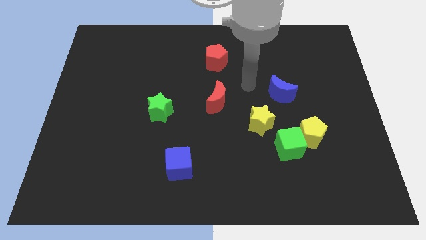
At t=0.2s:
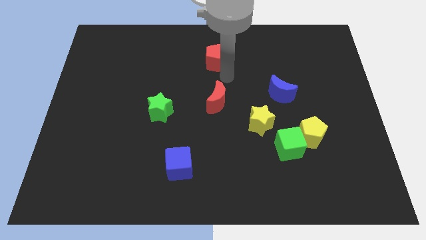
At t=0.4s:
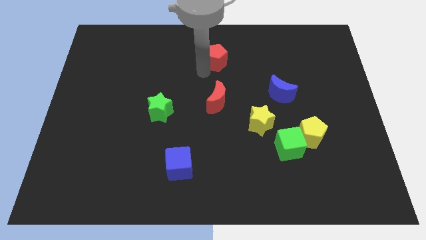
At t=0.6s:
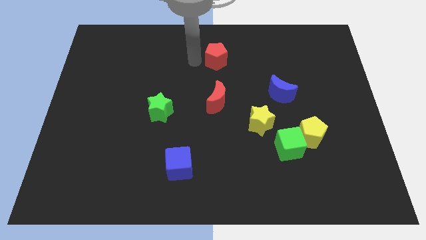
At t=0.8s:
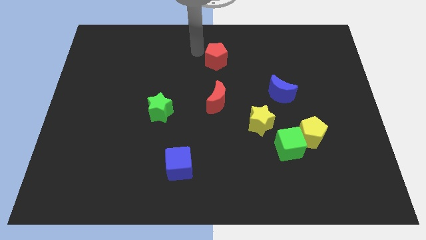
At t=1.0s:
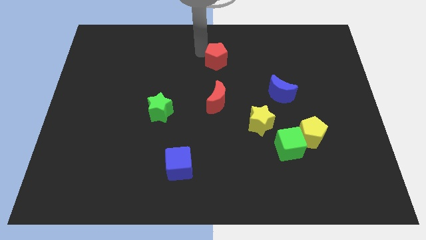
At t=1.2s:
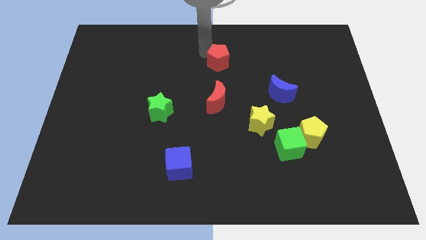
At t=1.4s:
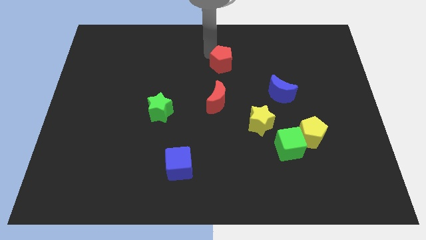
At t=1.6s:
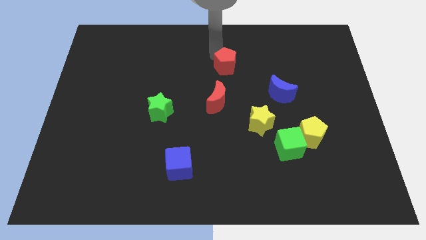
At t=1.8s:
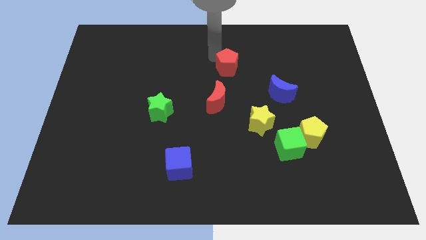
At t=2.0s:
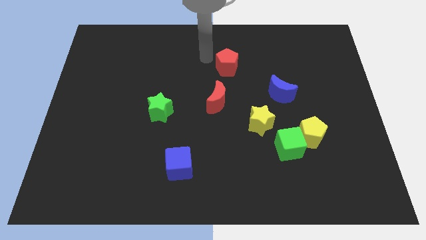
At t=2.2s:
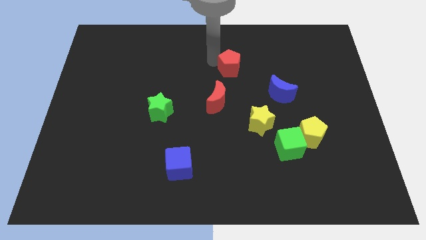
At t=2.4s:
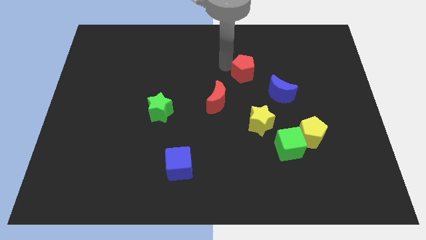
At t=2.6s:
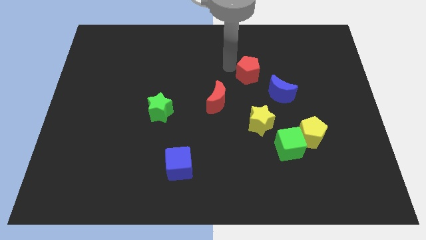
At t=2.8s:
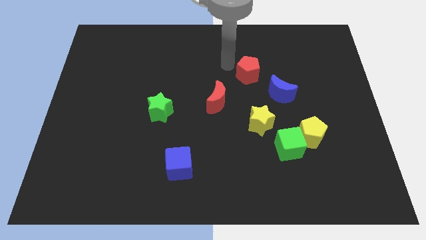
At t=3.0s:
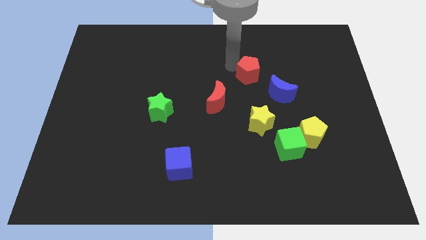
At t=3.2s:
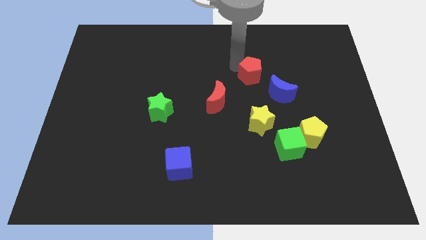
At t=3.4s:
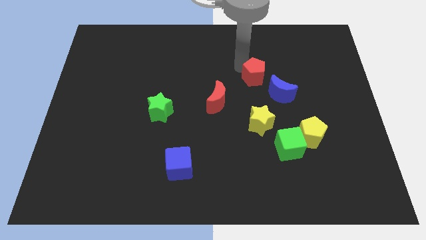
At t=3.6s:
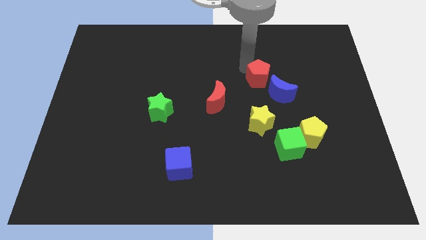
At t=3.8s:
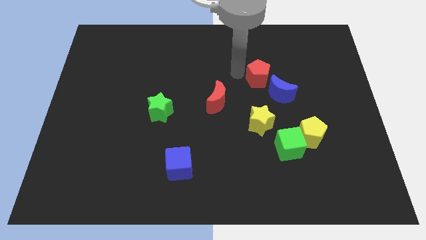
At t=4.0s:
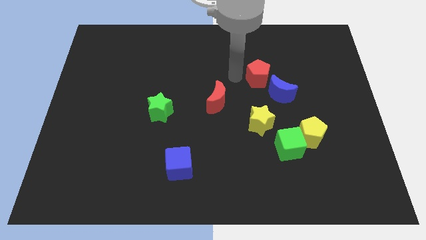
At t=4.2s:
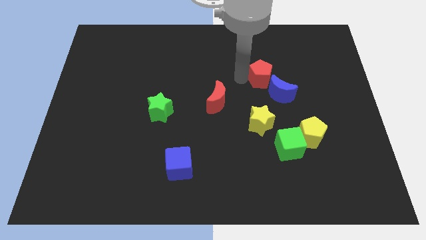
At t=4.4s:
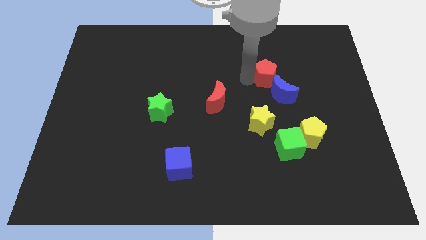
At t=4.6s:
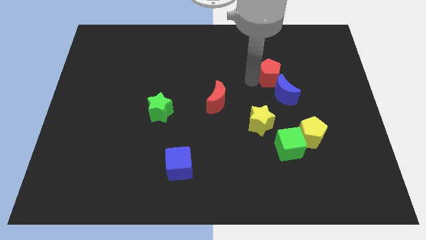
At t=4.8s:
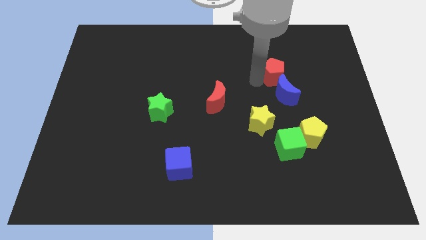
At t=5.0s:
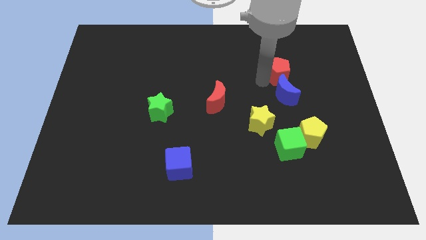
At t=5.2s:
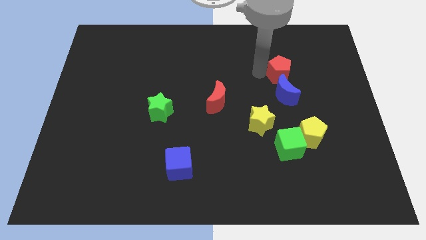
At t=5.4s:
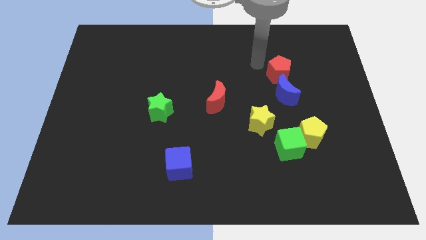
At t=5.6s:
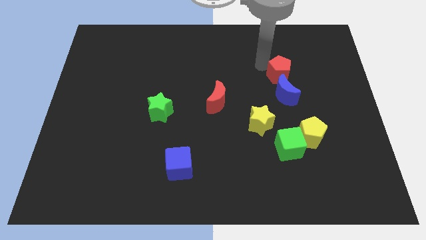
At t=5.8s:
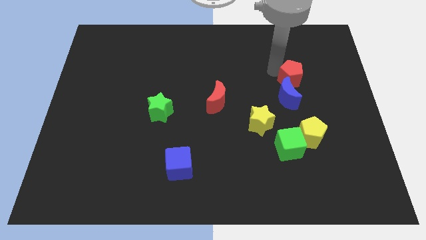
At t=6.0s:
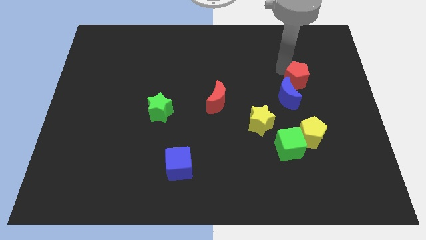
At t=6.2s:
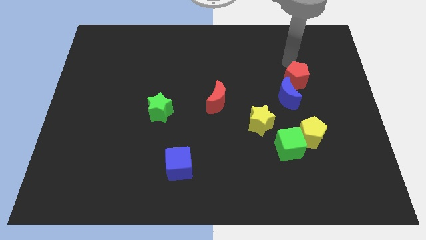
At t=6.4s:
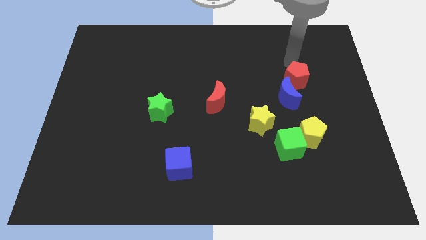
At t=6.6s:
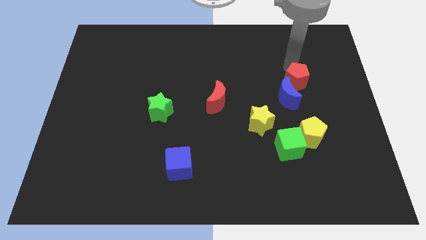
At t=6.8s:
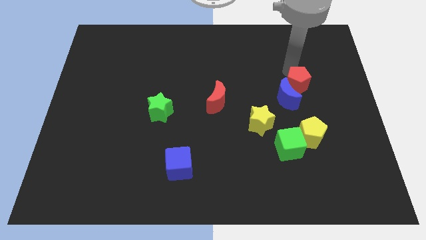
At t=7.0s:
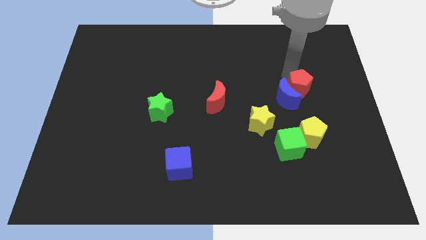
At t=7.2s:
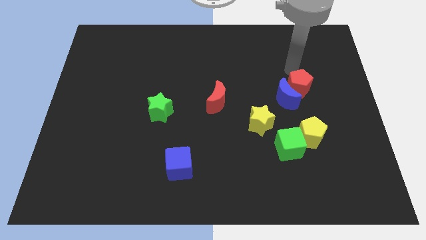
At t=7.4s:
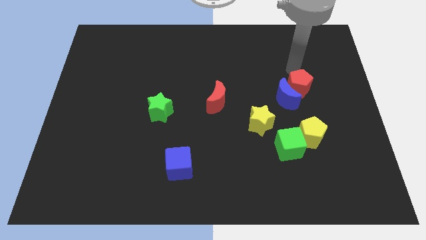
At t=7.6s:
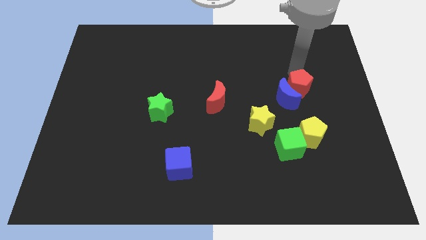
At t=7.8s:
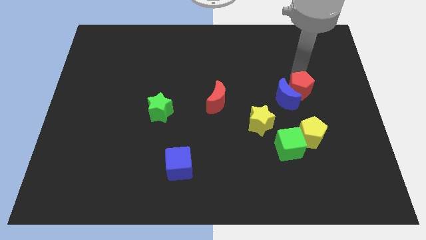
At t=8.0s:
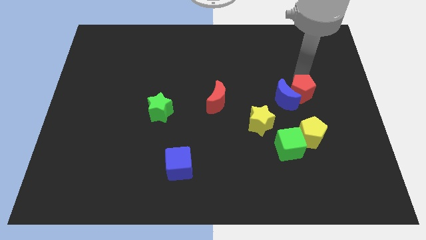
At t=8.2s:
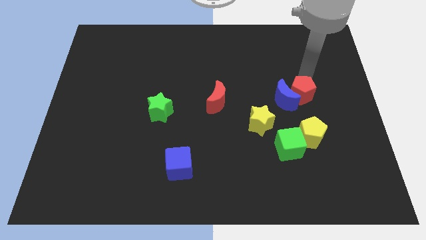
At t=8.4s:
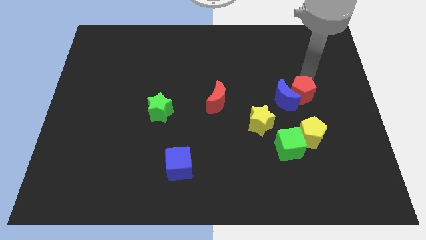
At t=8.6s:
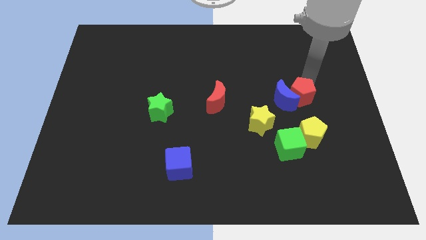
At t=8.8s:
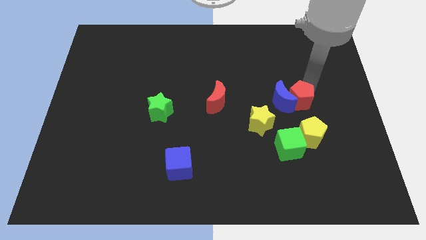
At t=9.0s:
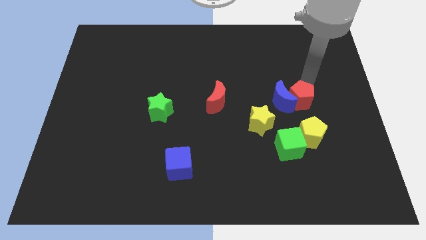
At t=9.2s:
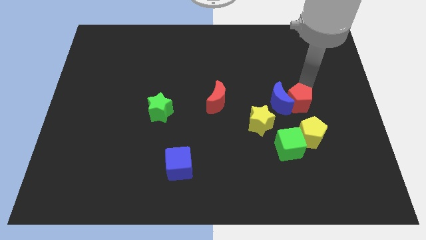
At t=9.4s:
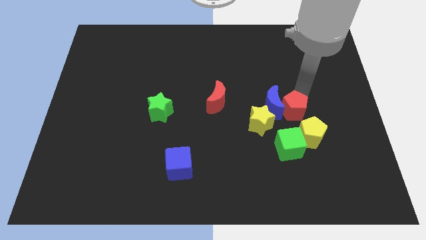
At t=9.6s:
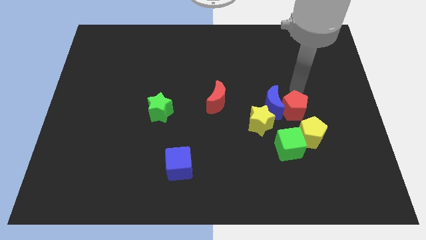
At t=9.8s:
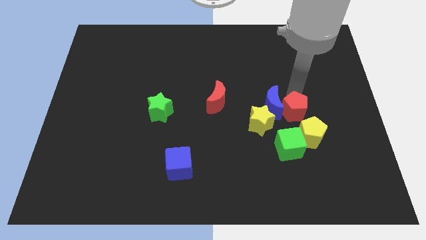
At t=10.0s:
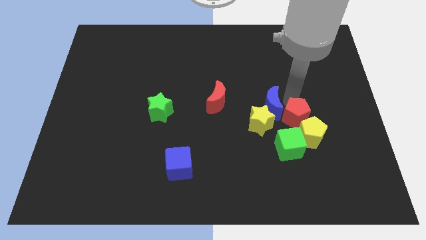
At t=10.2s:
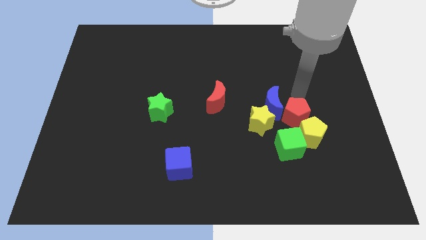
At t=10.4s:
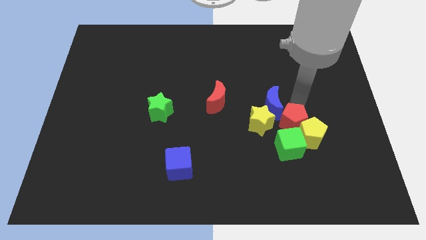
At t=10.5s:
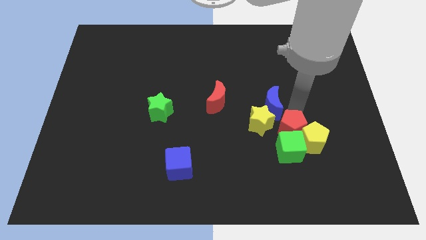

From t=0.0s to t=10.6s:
move the red pentagon next to the green cube

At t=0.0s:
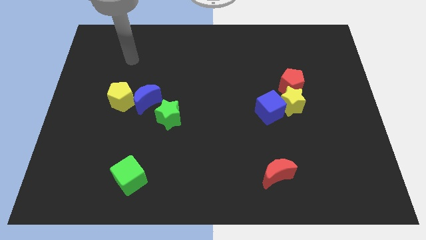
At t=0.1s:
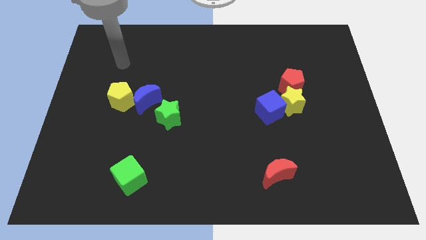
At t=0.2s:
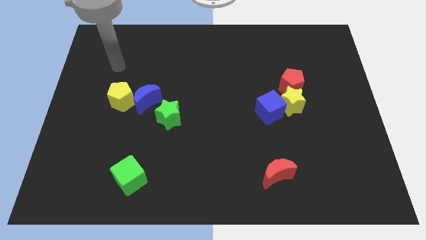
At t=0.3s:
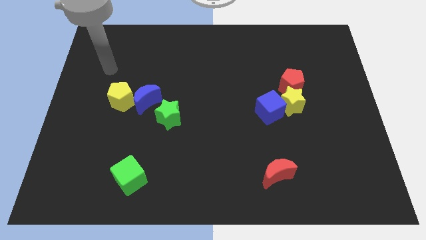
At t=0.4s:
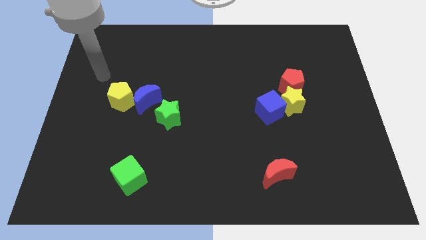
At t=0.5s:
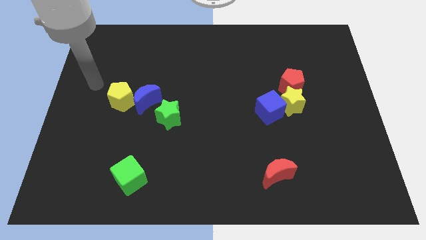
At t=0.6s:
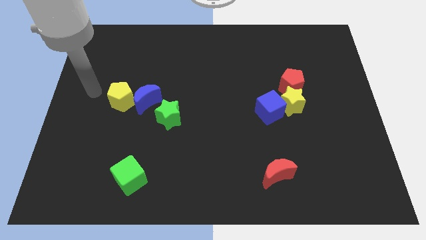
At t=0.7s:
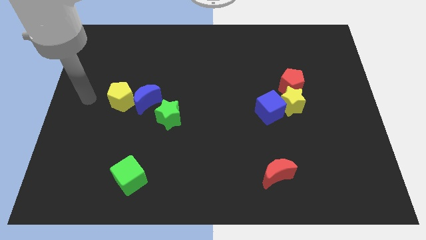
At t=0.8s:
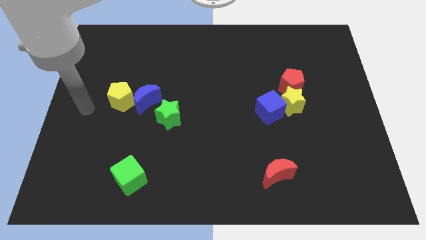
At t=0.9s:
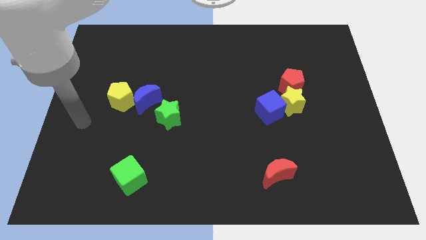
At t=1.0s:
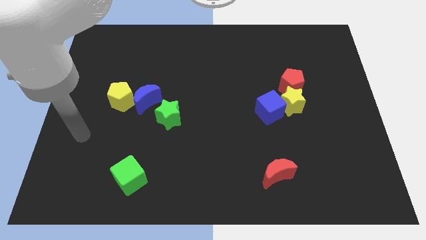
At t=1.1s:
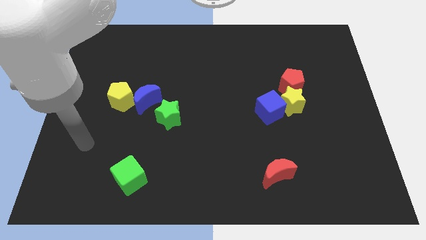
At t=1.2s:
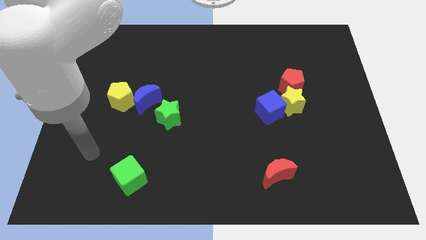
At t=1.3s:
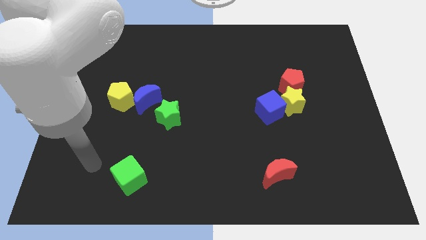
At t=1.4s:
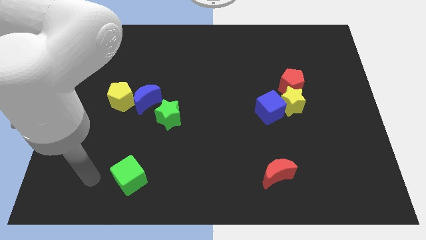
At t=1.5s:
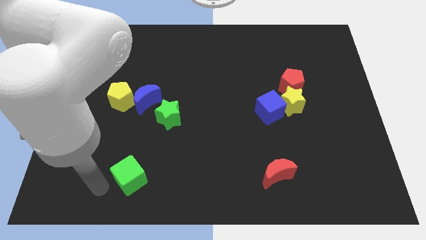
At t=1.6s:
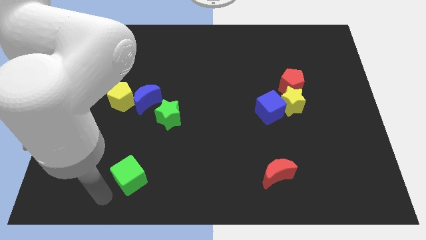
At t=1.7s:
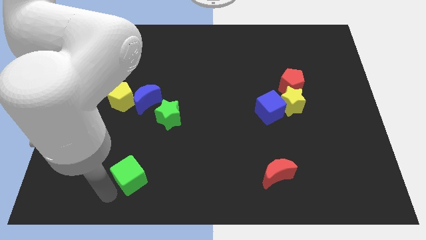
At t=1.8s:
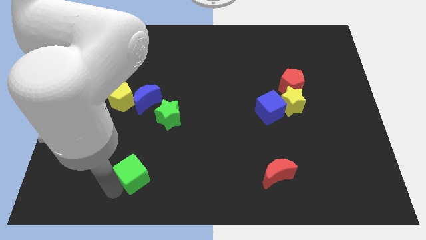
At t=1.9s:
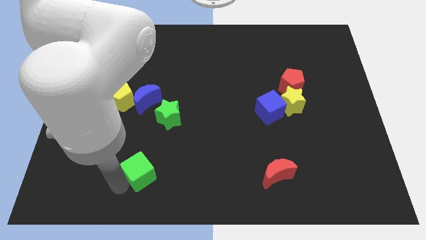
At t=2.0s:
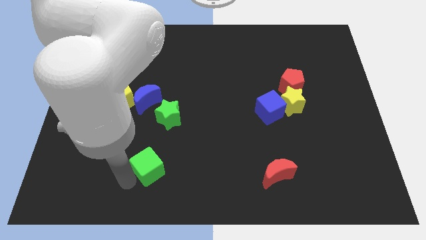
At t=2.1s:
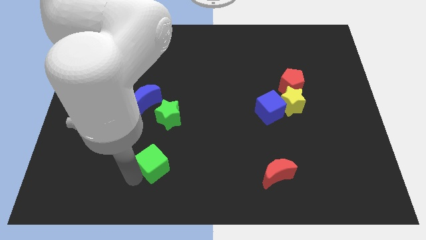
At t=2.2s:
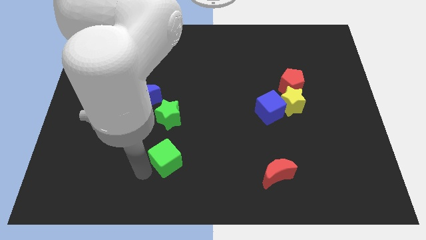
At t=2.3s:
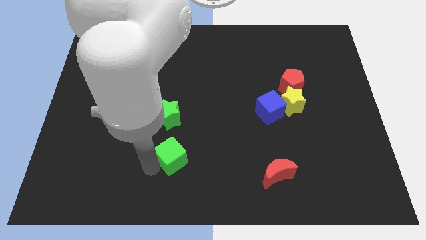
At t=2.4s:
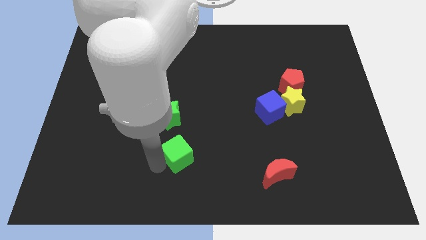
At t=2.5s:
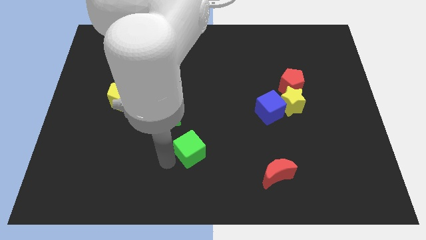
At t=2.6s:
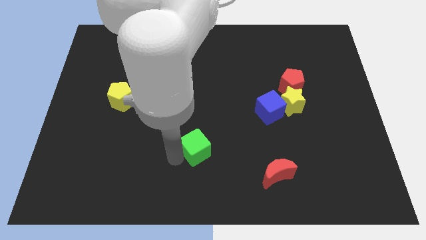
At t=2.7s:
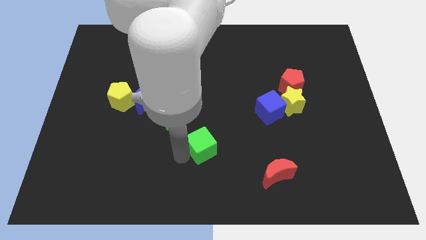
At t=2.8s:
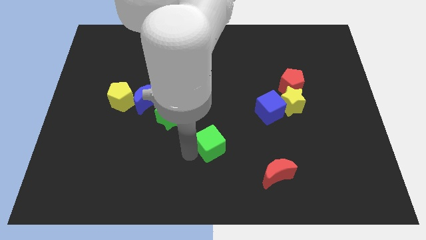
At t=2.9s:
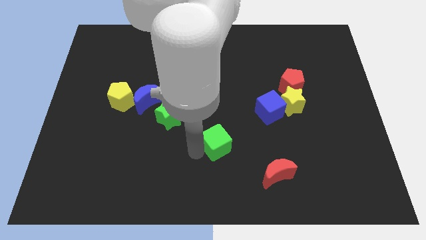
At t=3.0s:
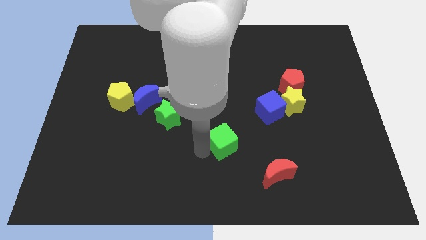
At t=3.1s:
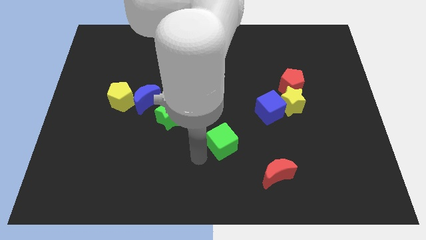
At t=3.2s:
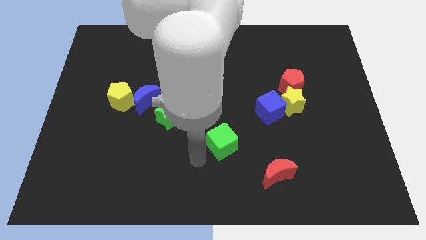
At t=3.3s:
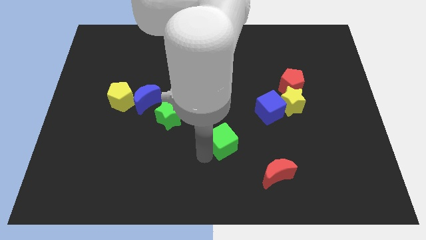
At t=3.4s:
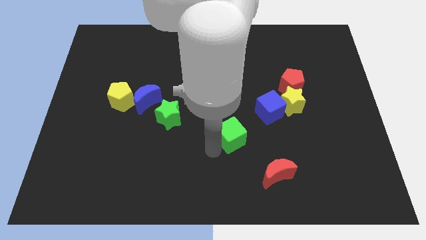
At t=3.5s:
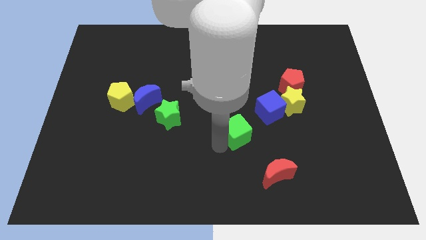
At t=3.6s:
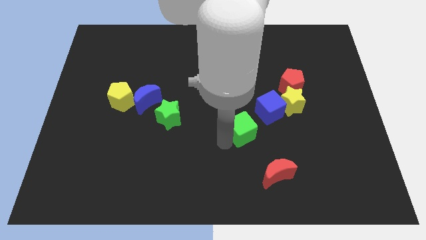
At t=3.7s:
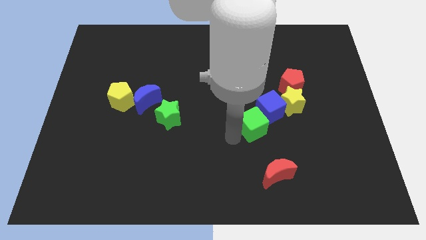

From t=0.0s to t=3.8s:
move the green cube close to the blue cube
